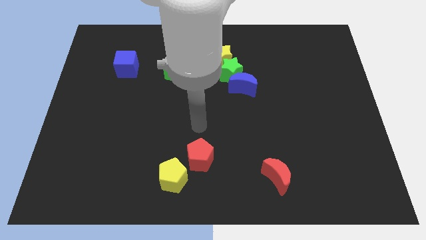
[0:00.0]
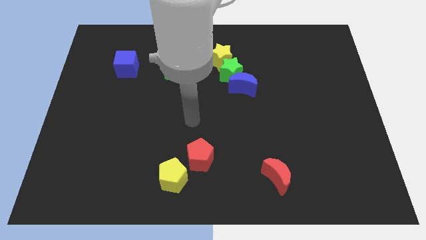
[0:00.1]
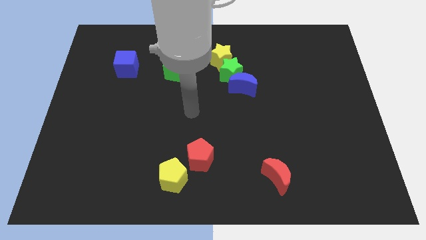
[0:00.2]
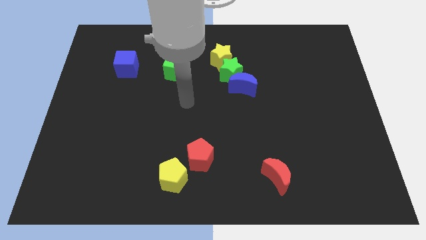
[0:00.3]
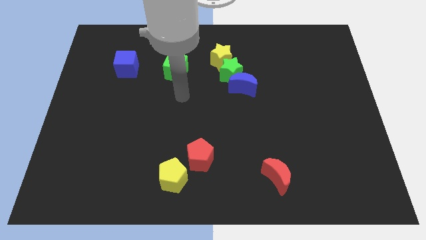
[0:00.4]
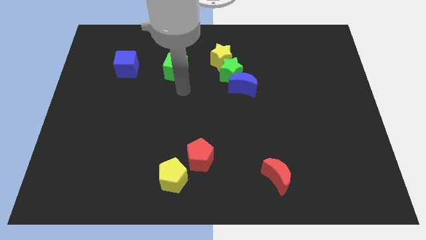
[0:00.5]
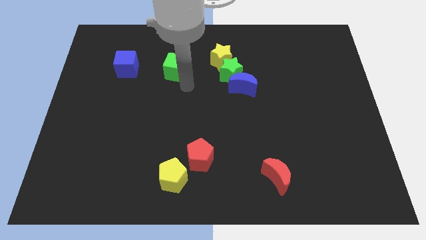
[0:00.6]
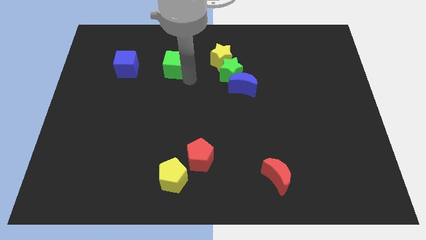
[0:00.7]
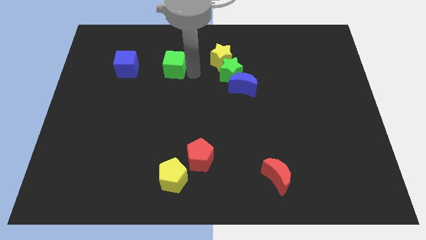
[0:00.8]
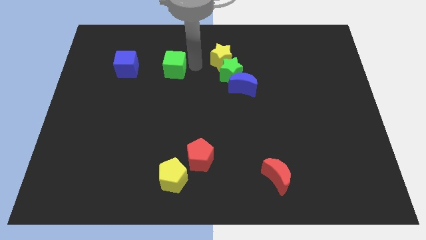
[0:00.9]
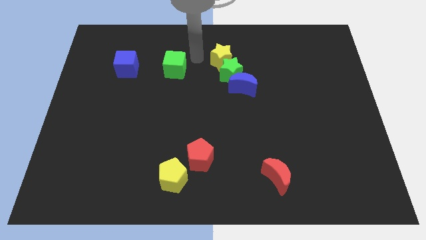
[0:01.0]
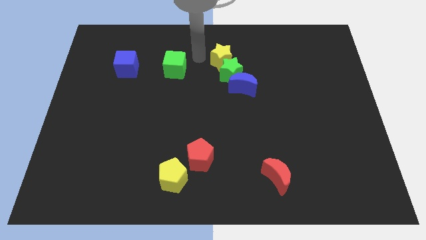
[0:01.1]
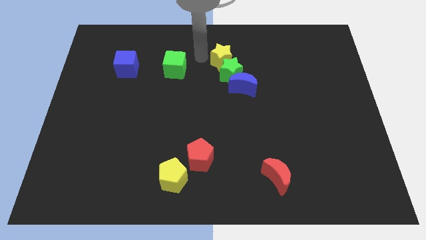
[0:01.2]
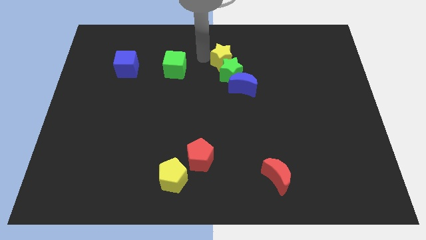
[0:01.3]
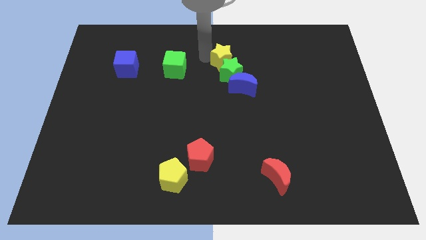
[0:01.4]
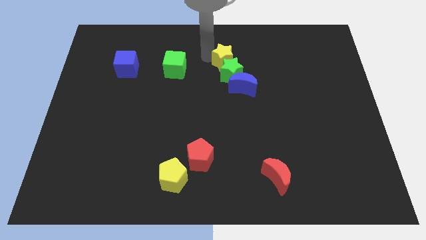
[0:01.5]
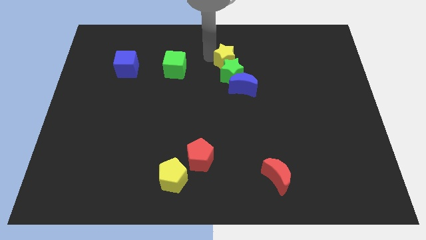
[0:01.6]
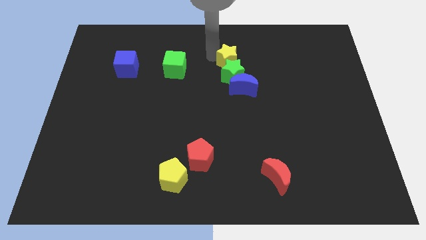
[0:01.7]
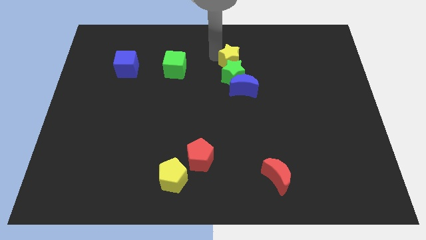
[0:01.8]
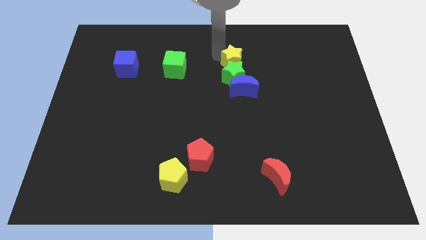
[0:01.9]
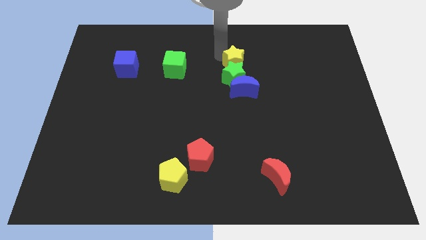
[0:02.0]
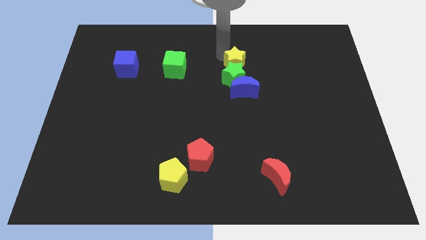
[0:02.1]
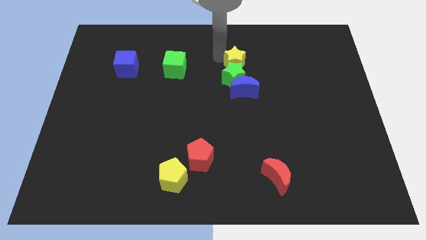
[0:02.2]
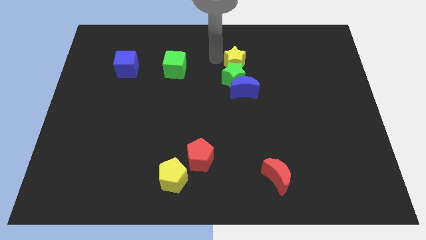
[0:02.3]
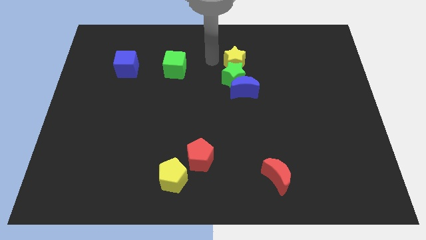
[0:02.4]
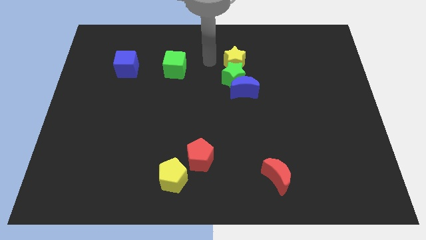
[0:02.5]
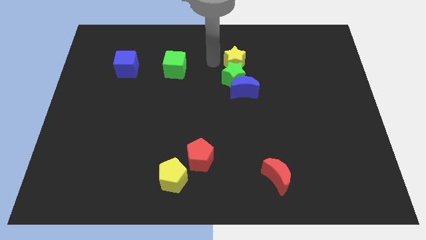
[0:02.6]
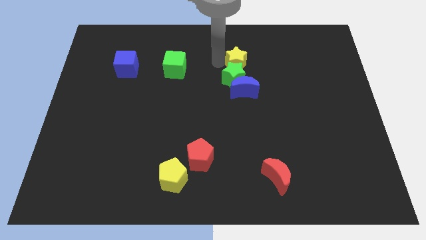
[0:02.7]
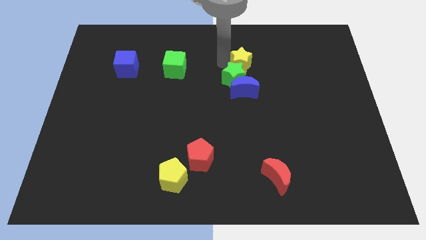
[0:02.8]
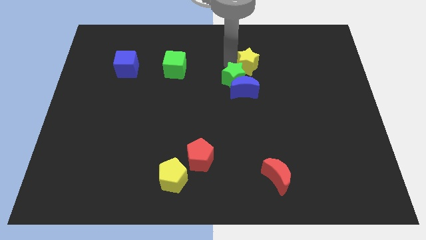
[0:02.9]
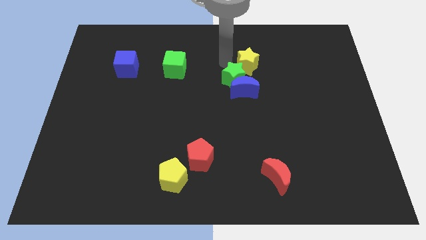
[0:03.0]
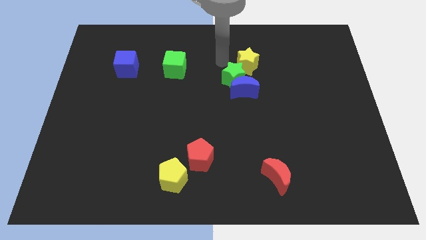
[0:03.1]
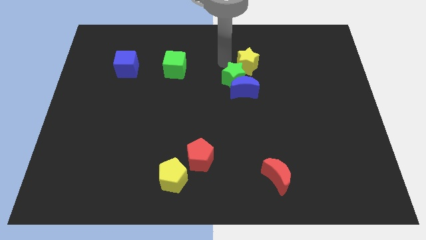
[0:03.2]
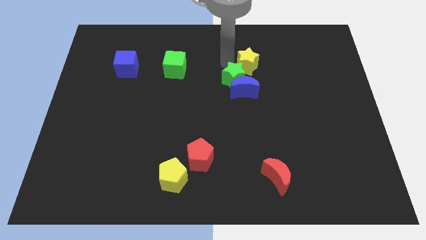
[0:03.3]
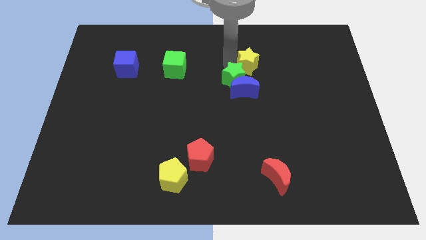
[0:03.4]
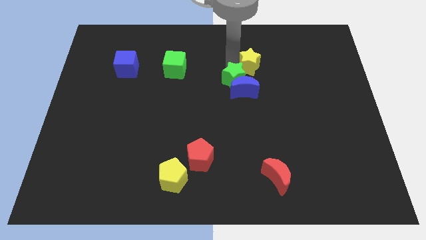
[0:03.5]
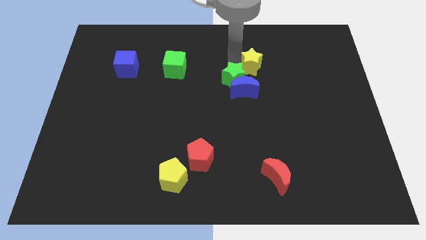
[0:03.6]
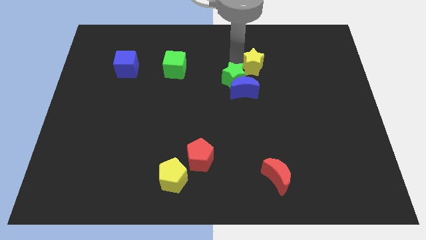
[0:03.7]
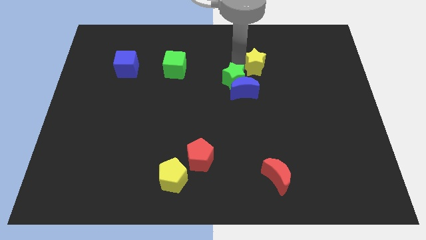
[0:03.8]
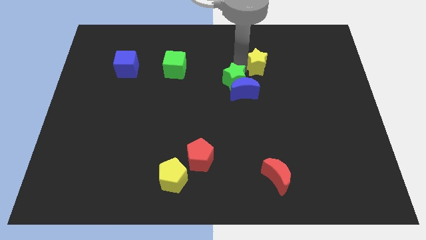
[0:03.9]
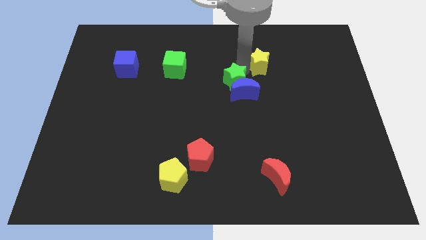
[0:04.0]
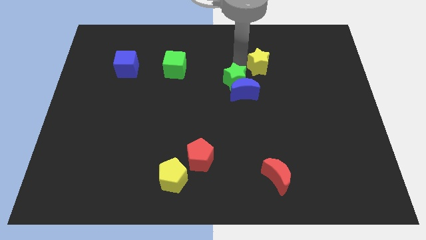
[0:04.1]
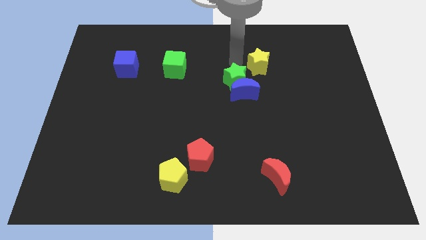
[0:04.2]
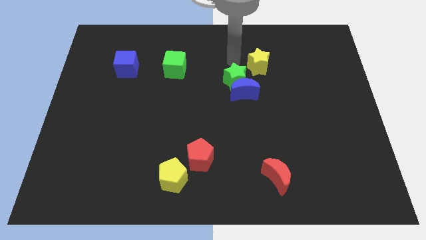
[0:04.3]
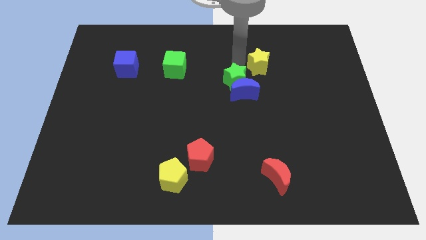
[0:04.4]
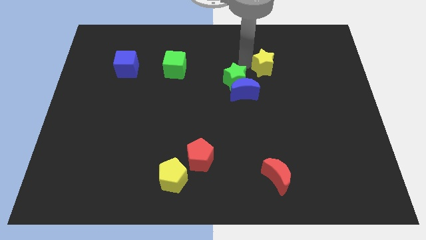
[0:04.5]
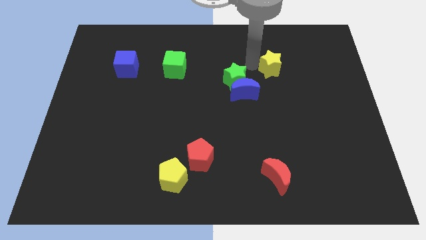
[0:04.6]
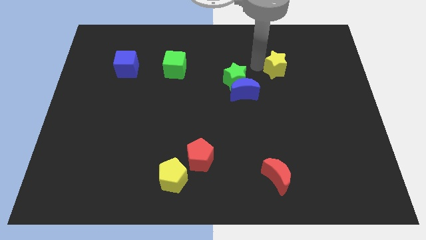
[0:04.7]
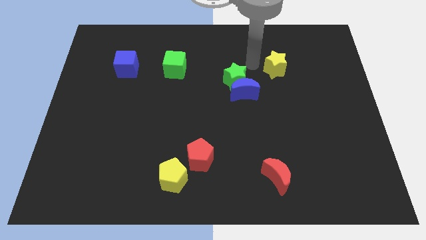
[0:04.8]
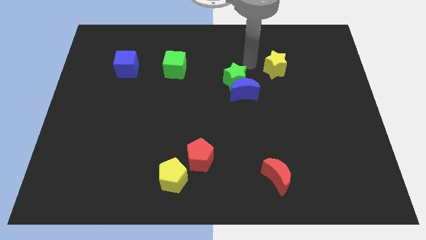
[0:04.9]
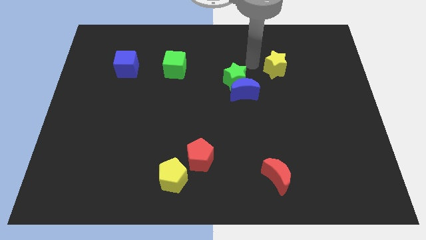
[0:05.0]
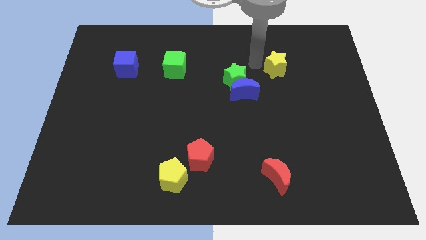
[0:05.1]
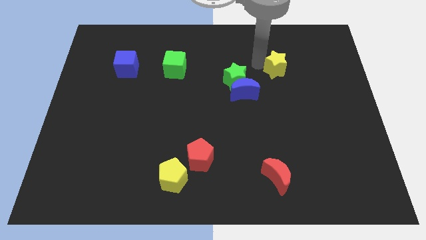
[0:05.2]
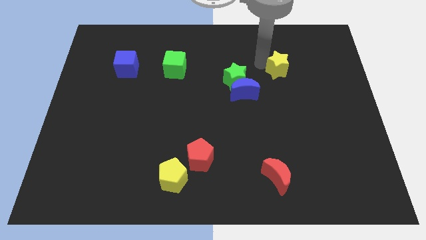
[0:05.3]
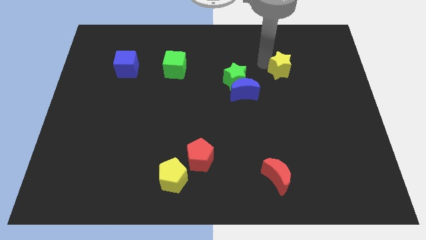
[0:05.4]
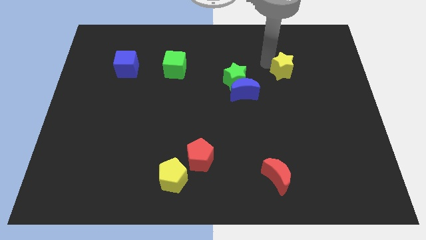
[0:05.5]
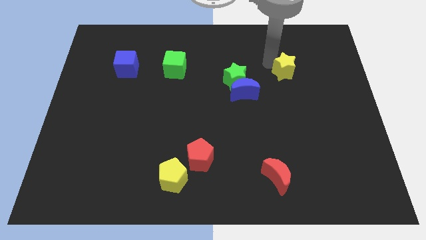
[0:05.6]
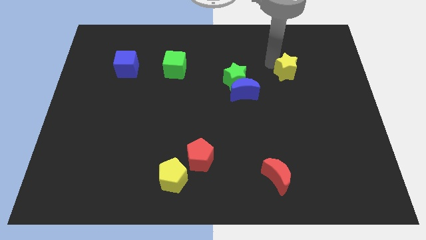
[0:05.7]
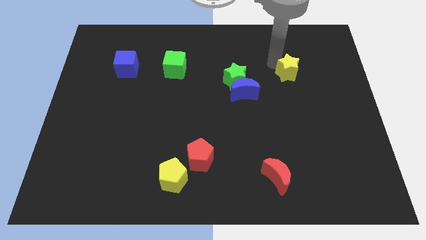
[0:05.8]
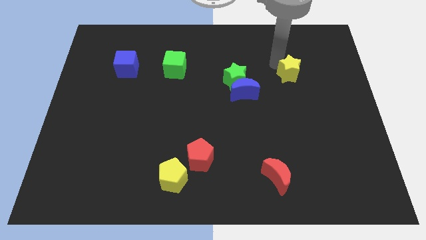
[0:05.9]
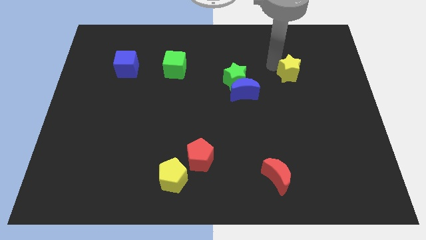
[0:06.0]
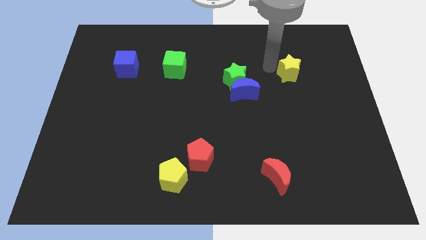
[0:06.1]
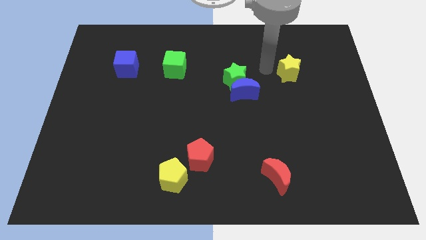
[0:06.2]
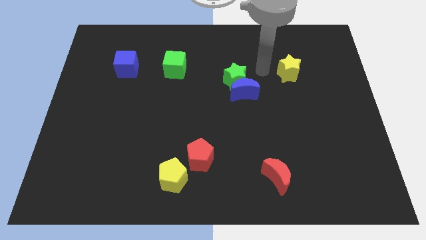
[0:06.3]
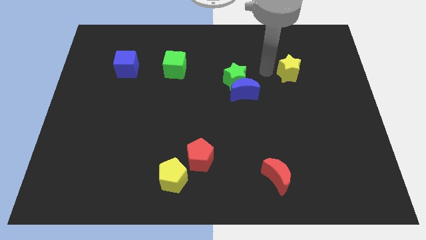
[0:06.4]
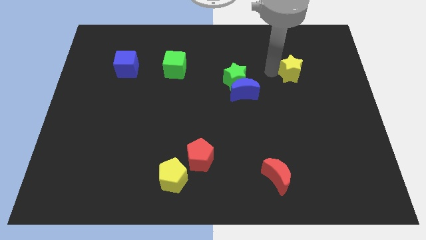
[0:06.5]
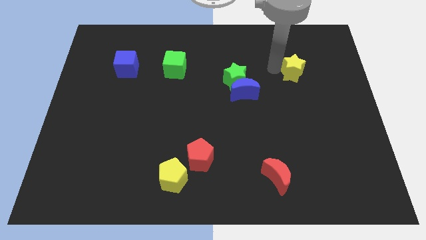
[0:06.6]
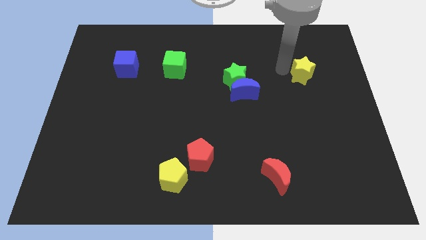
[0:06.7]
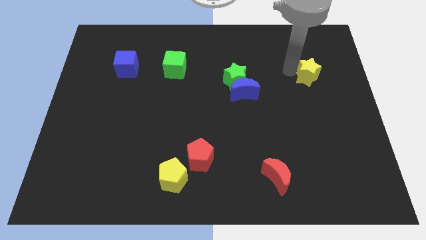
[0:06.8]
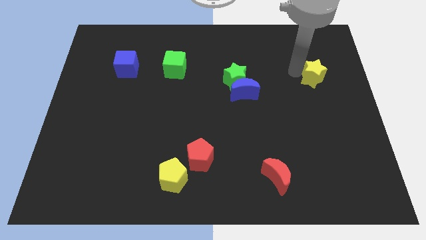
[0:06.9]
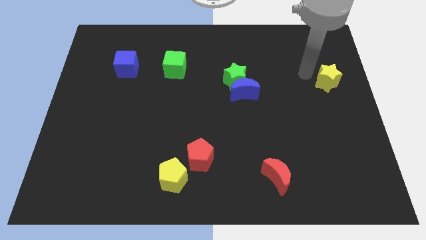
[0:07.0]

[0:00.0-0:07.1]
put the yellow star to the center right

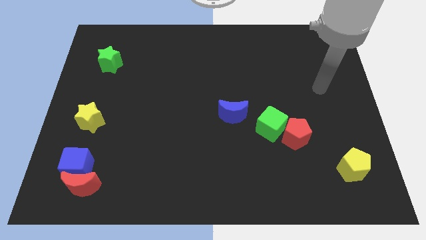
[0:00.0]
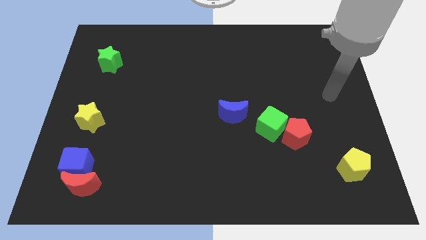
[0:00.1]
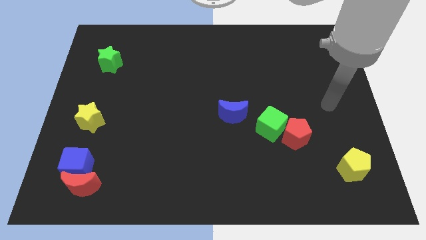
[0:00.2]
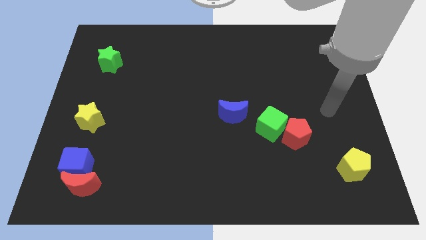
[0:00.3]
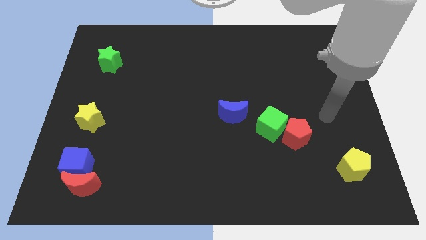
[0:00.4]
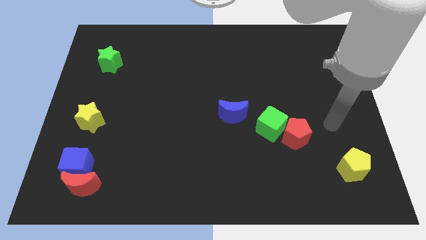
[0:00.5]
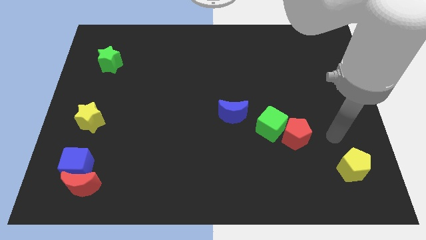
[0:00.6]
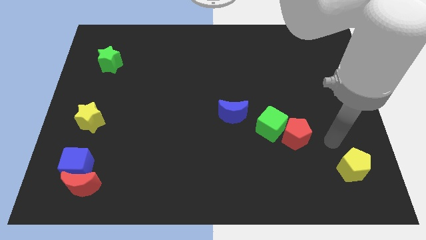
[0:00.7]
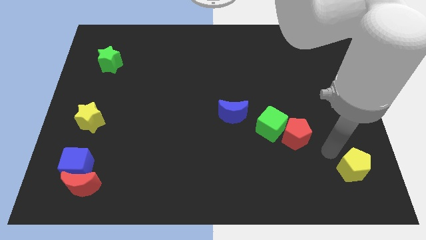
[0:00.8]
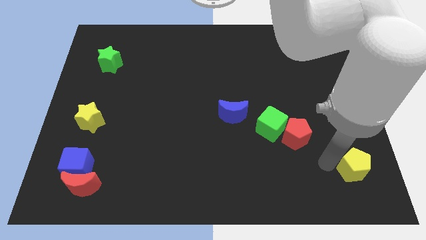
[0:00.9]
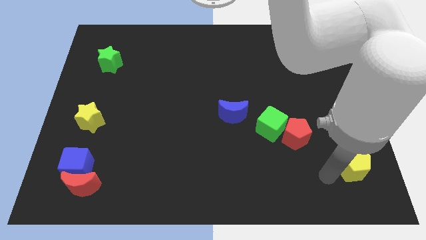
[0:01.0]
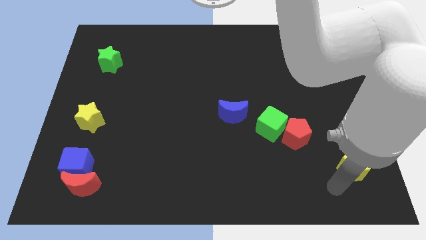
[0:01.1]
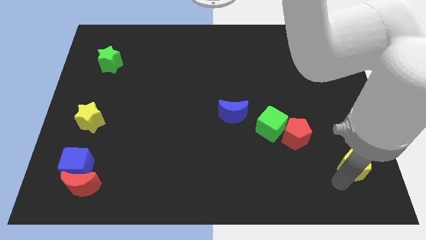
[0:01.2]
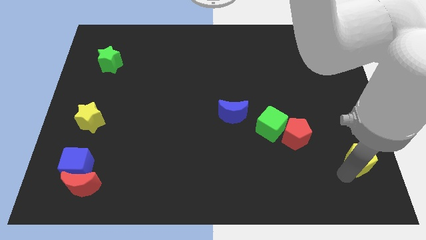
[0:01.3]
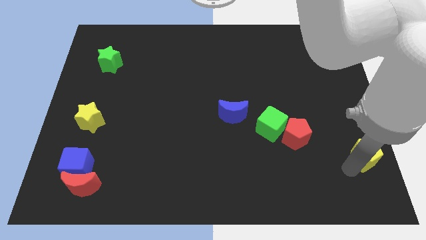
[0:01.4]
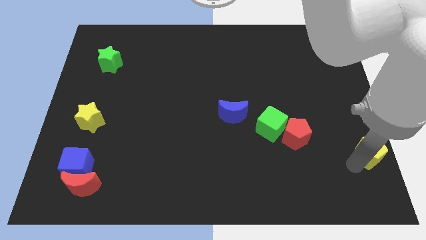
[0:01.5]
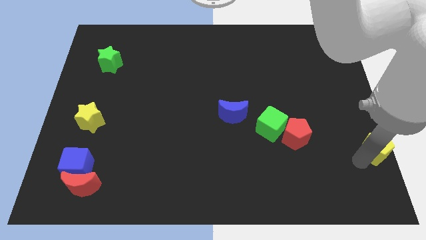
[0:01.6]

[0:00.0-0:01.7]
move the yellow pentagon to the right side
